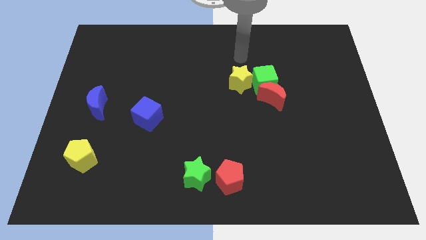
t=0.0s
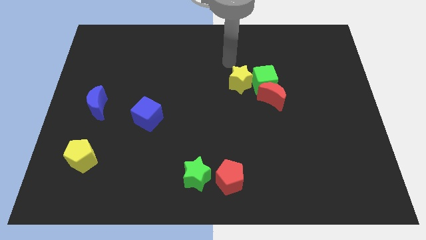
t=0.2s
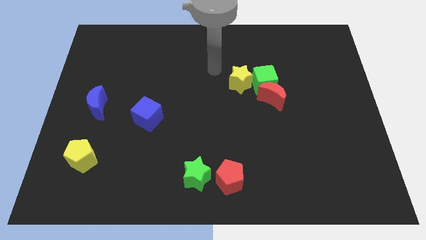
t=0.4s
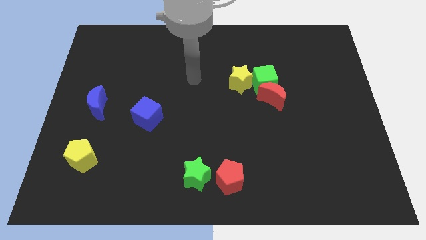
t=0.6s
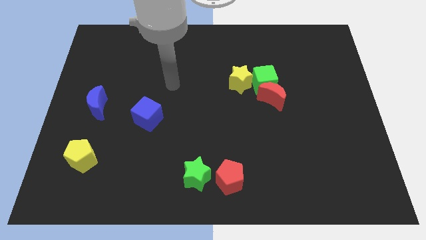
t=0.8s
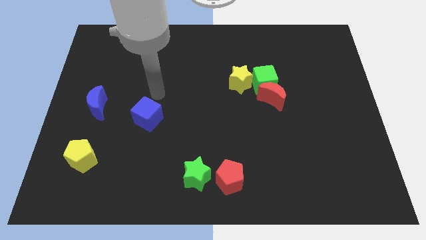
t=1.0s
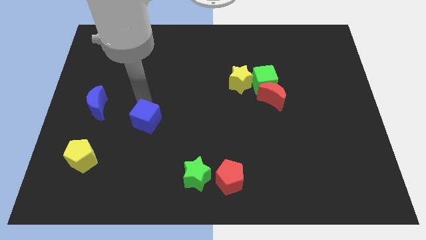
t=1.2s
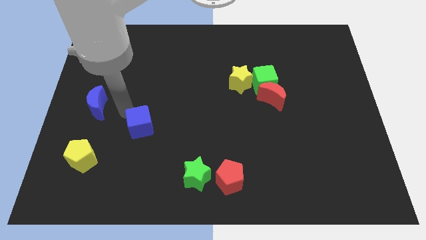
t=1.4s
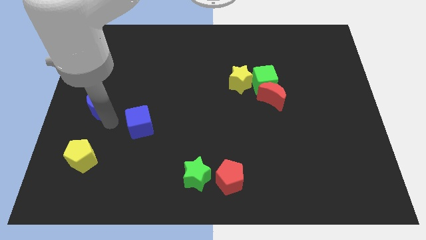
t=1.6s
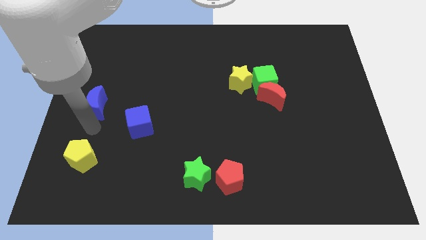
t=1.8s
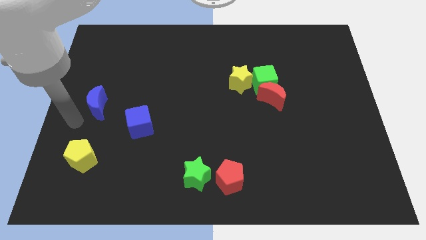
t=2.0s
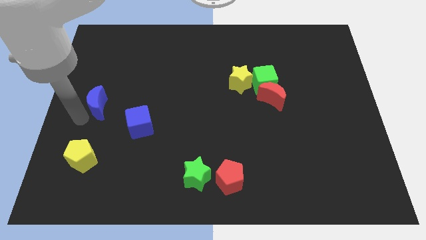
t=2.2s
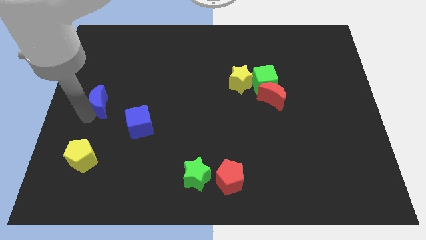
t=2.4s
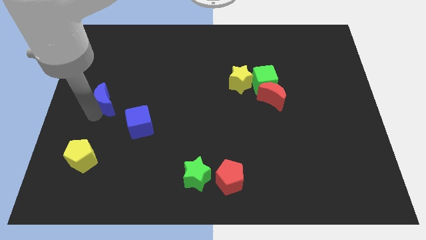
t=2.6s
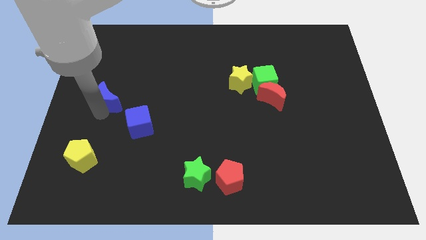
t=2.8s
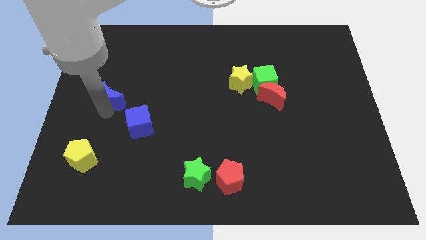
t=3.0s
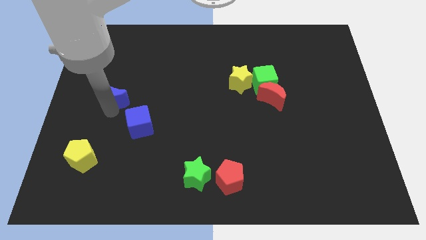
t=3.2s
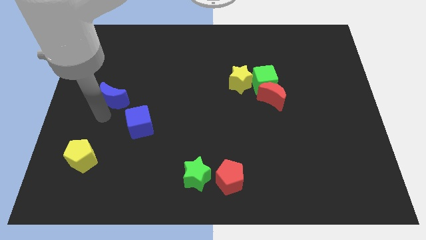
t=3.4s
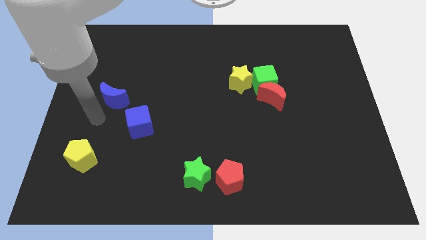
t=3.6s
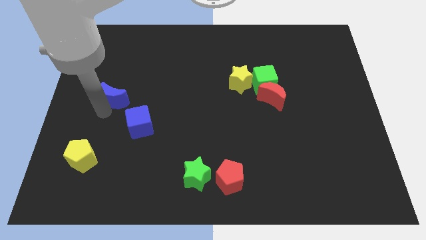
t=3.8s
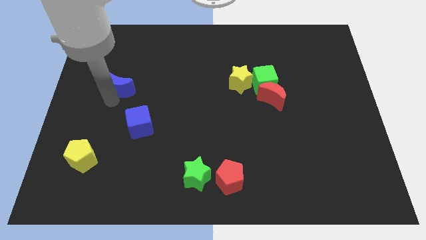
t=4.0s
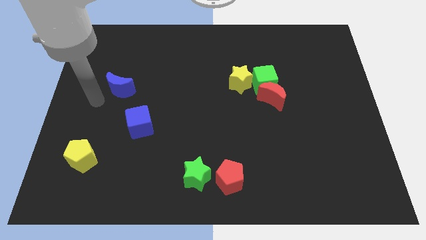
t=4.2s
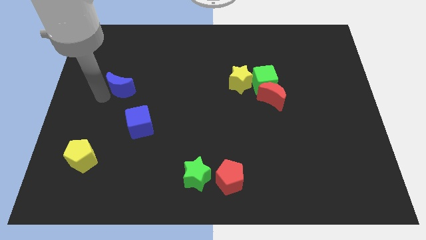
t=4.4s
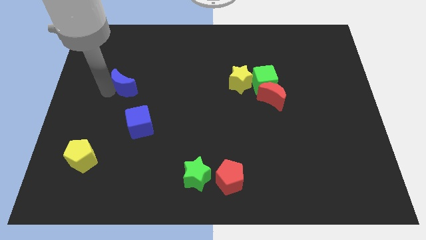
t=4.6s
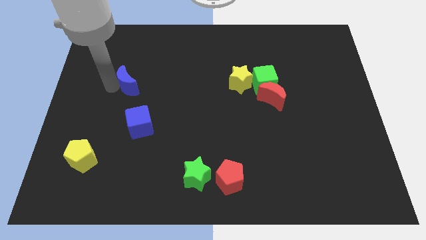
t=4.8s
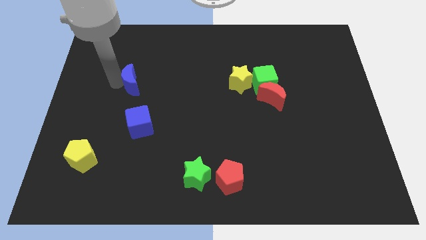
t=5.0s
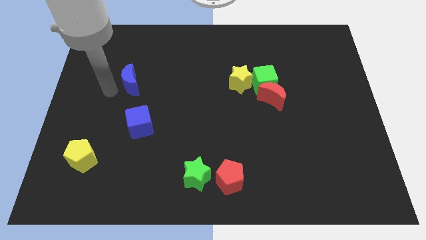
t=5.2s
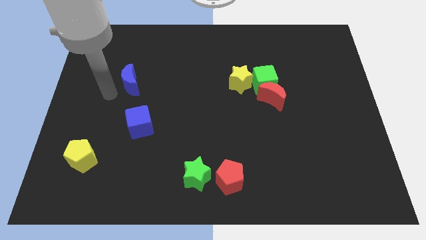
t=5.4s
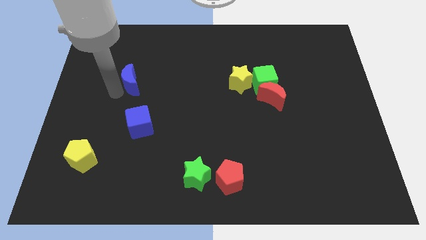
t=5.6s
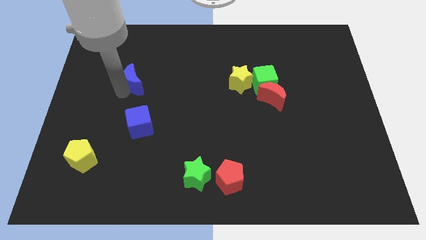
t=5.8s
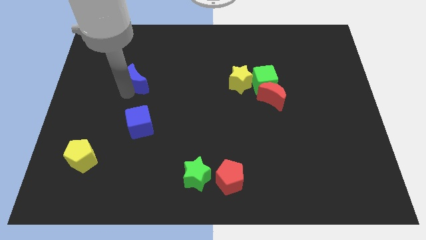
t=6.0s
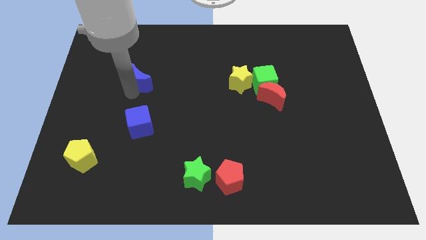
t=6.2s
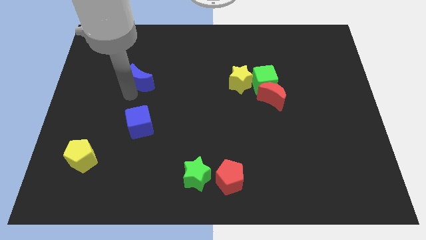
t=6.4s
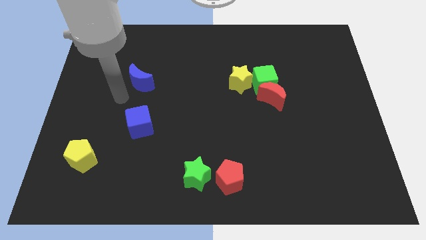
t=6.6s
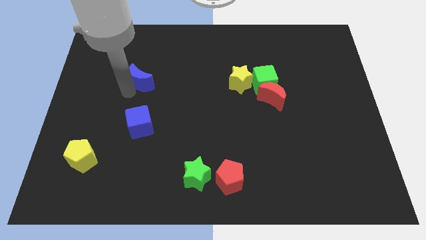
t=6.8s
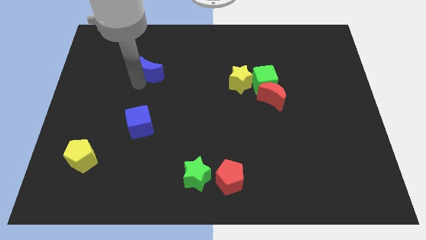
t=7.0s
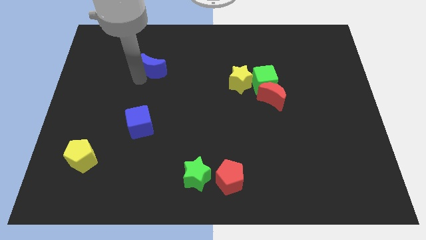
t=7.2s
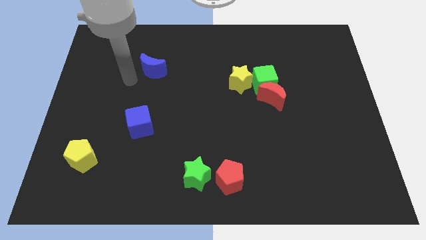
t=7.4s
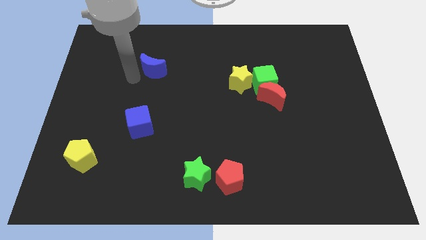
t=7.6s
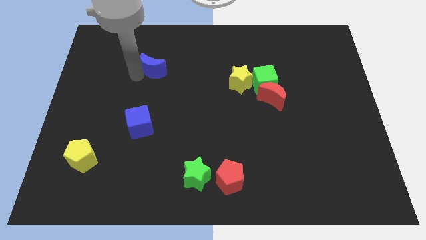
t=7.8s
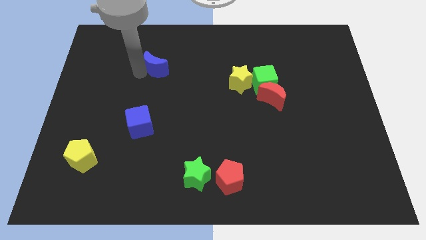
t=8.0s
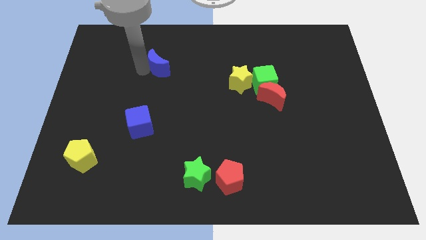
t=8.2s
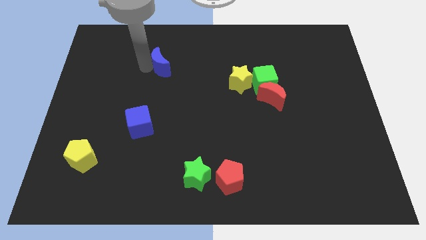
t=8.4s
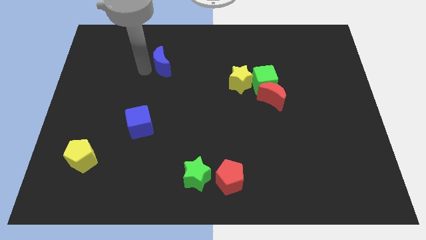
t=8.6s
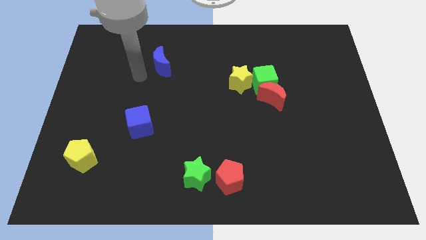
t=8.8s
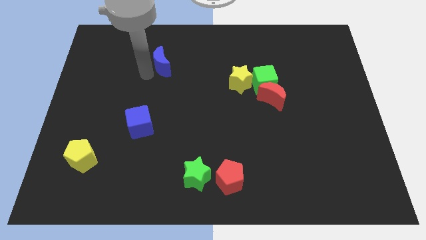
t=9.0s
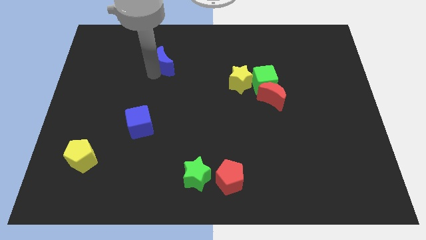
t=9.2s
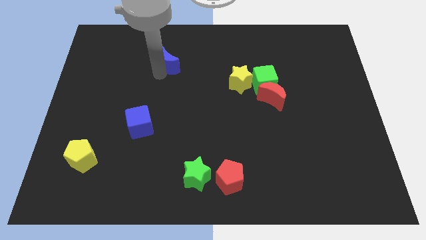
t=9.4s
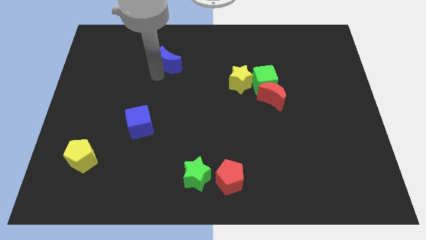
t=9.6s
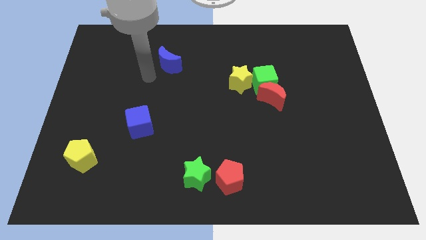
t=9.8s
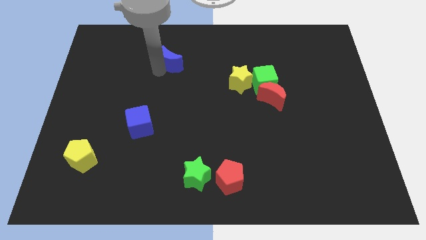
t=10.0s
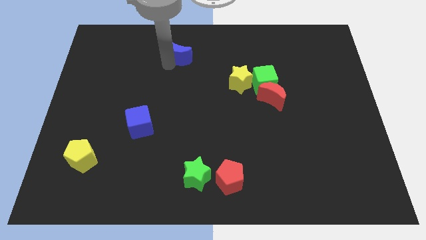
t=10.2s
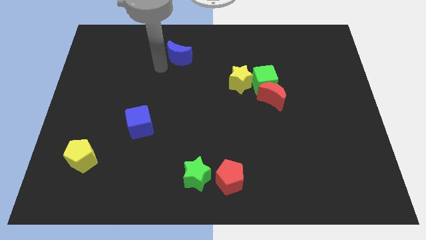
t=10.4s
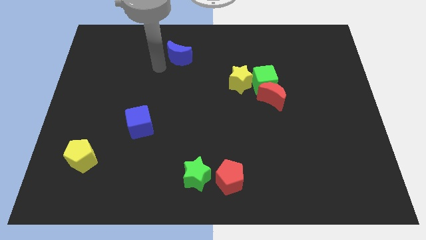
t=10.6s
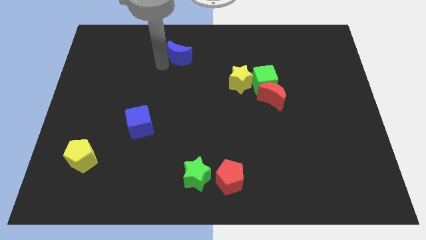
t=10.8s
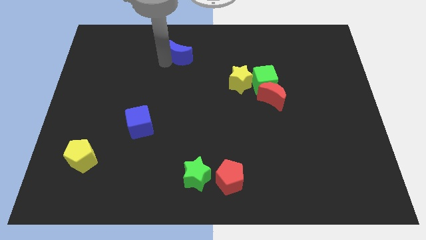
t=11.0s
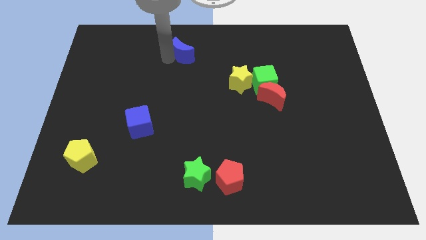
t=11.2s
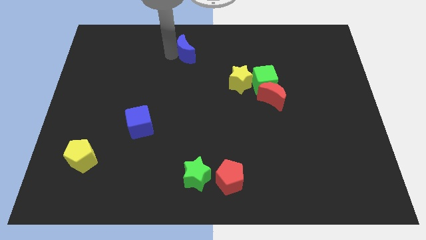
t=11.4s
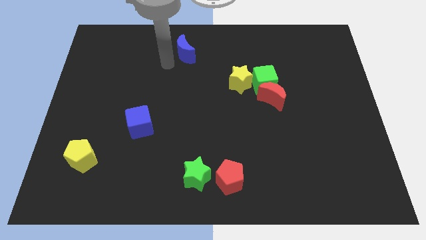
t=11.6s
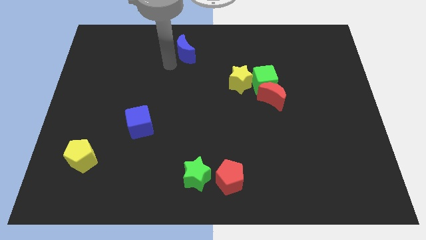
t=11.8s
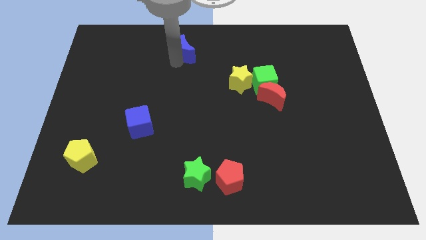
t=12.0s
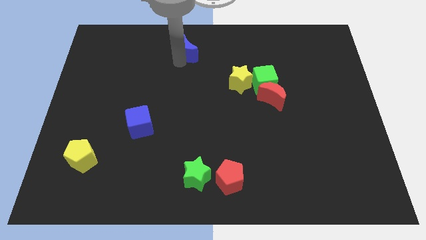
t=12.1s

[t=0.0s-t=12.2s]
put the blue moon to the towards your base

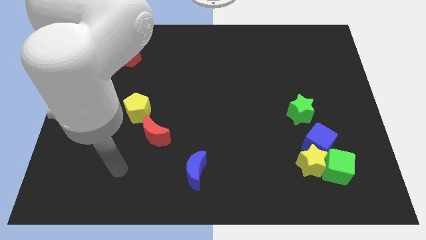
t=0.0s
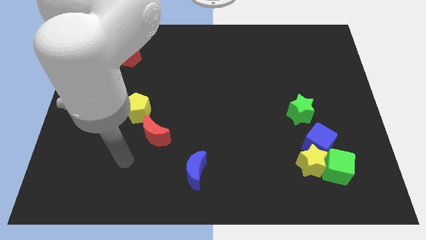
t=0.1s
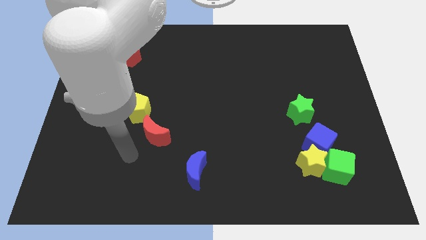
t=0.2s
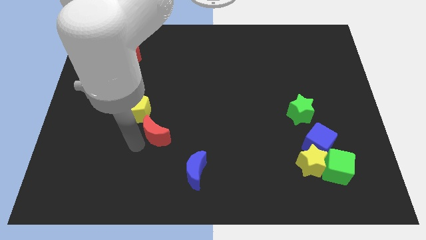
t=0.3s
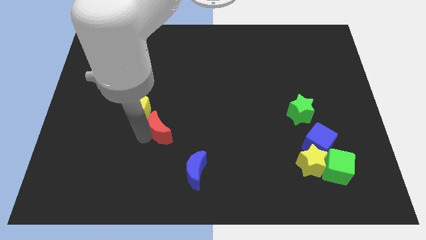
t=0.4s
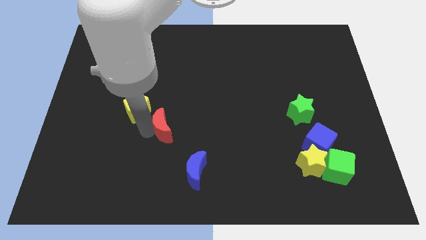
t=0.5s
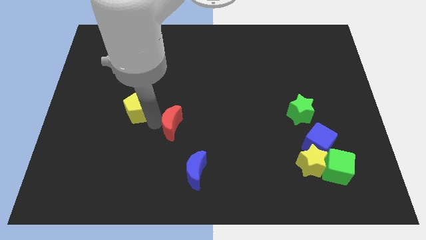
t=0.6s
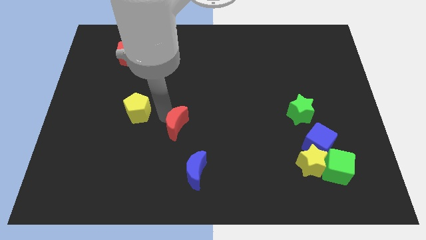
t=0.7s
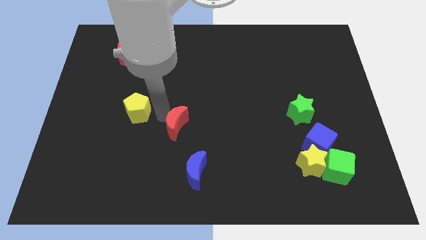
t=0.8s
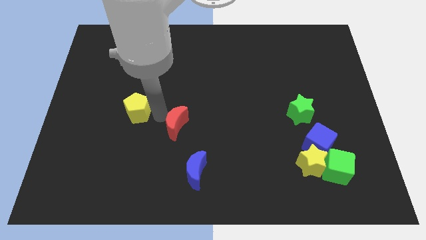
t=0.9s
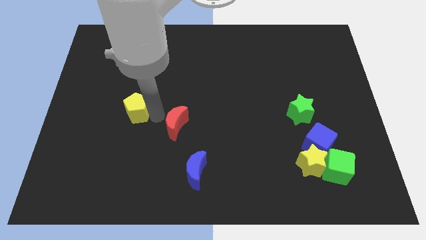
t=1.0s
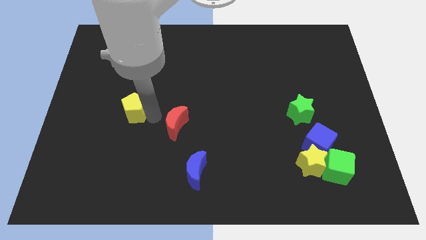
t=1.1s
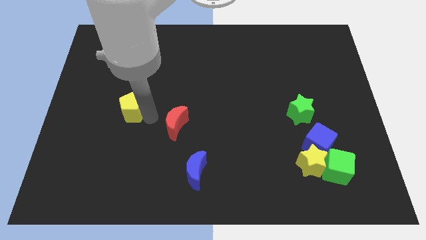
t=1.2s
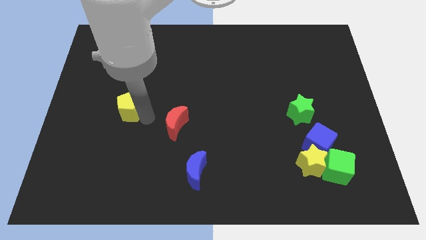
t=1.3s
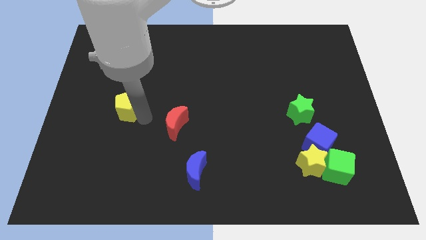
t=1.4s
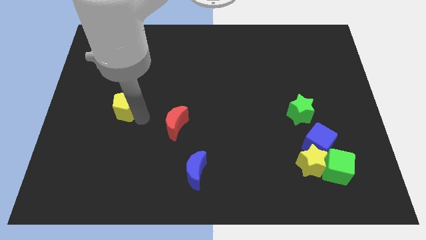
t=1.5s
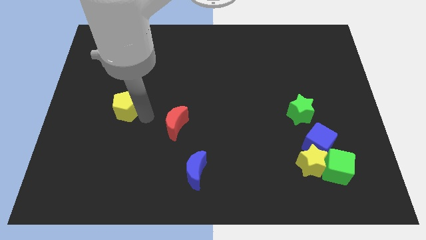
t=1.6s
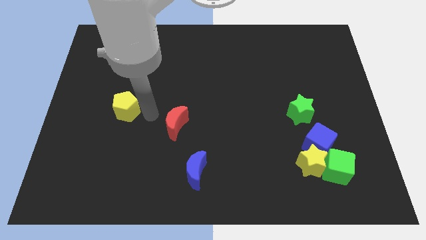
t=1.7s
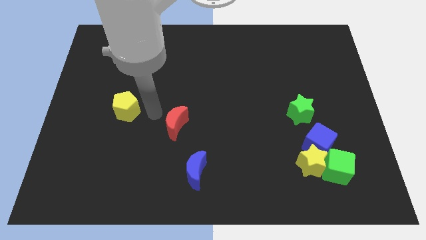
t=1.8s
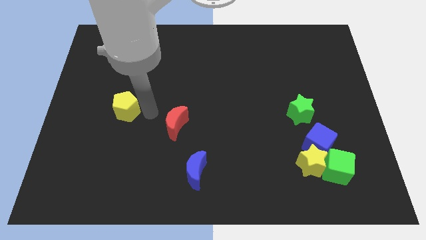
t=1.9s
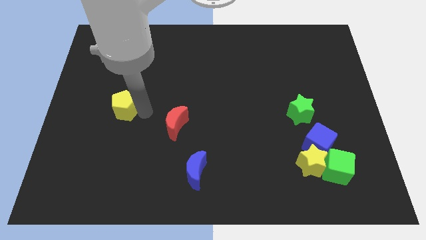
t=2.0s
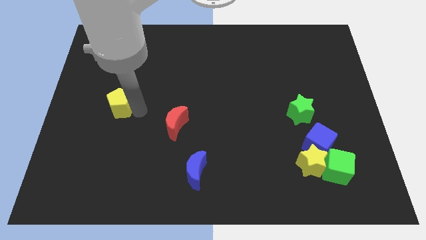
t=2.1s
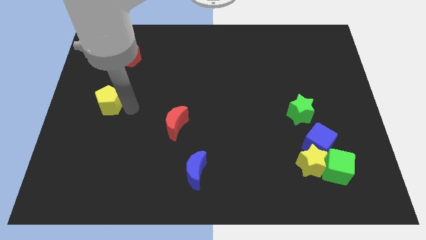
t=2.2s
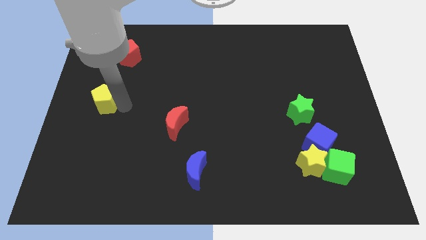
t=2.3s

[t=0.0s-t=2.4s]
slide the yellow pentagon to the left side of the board
